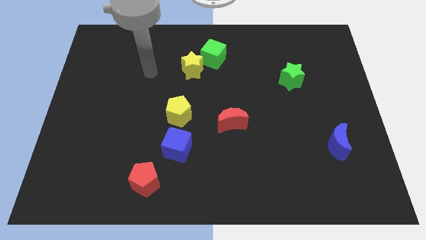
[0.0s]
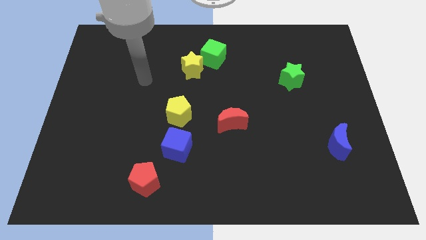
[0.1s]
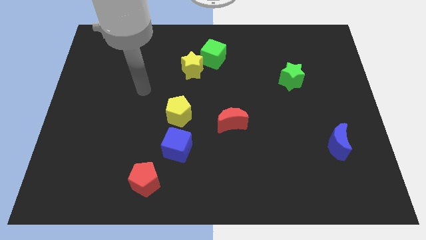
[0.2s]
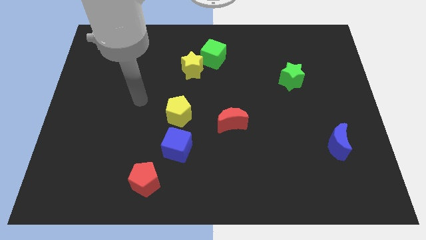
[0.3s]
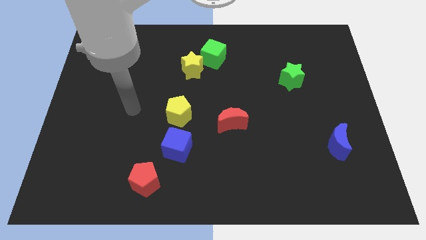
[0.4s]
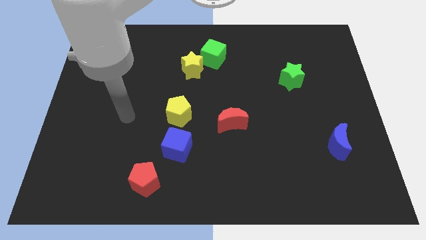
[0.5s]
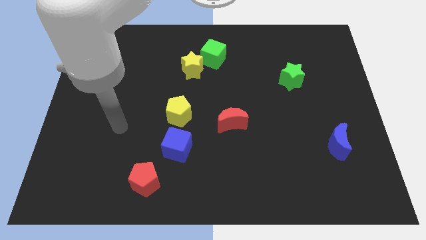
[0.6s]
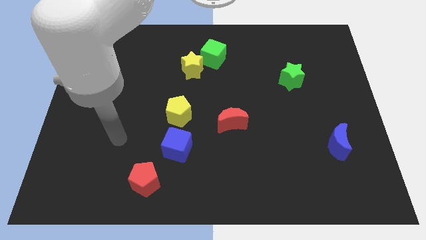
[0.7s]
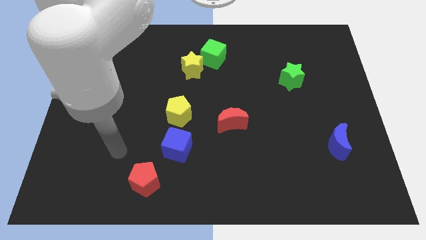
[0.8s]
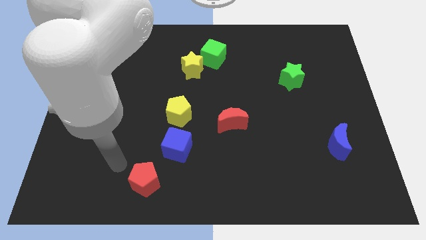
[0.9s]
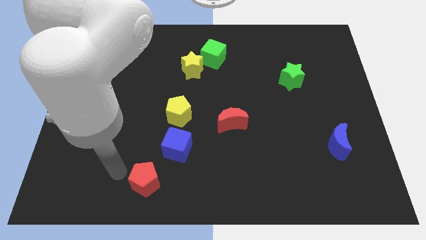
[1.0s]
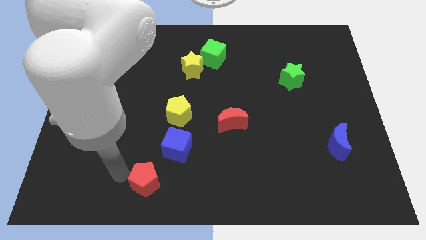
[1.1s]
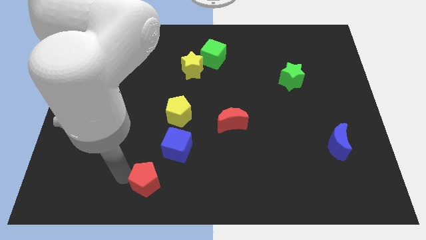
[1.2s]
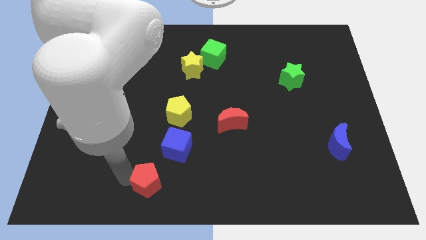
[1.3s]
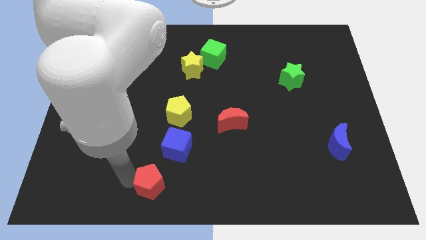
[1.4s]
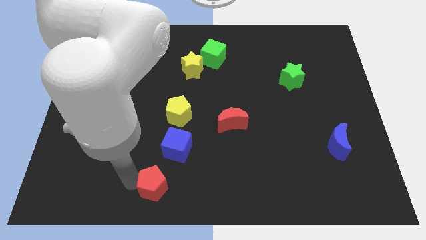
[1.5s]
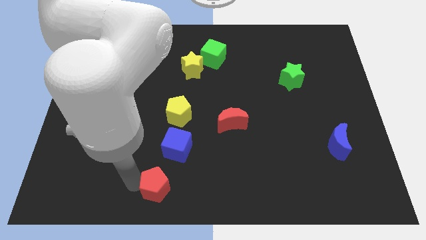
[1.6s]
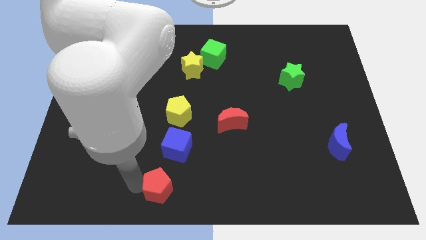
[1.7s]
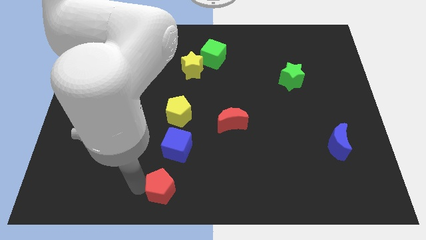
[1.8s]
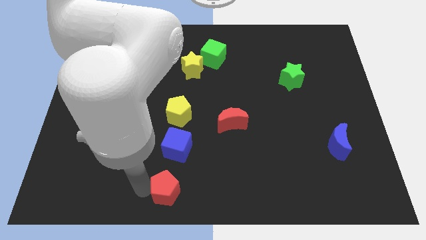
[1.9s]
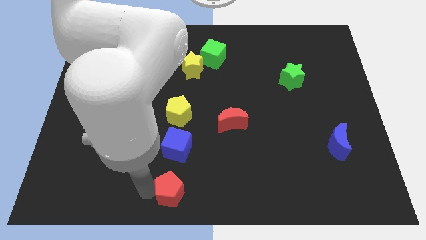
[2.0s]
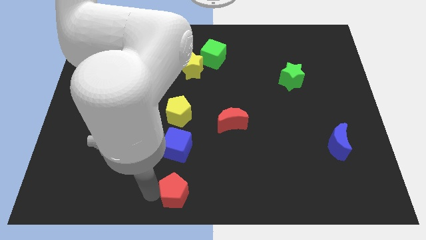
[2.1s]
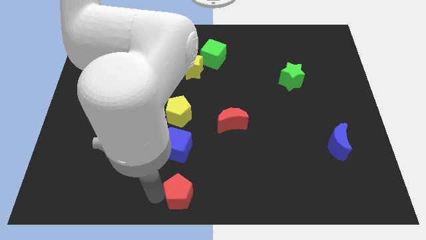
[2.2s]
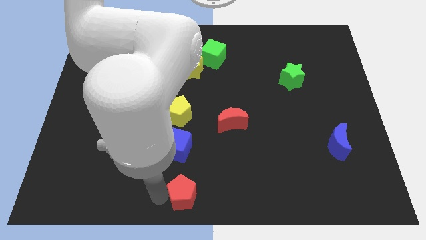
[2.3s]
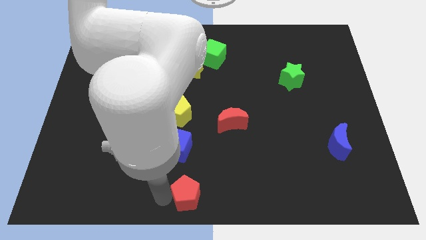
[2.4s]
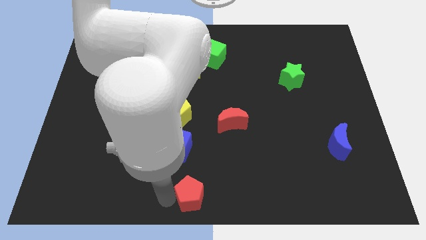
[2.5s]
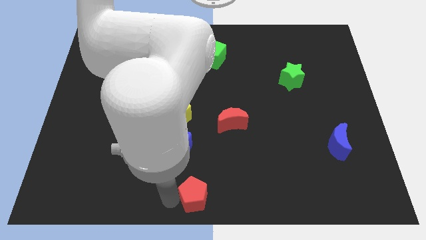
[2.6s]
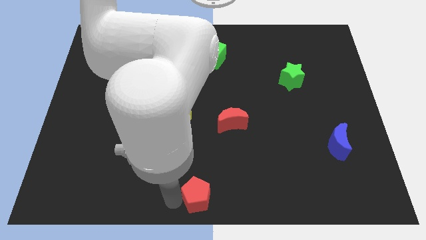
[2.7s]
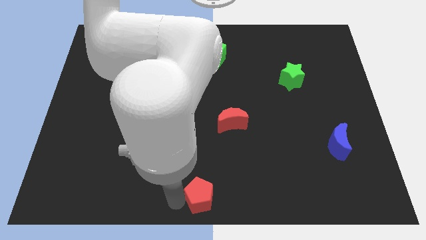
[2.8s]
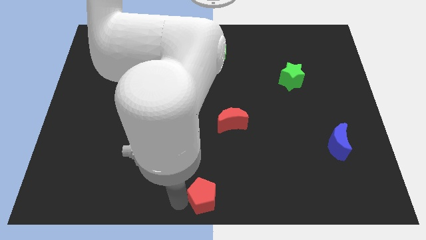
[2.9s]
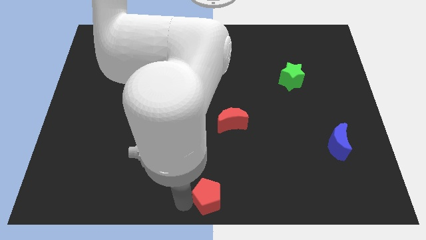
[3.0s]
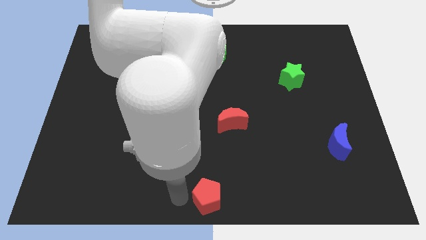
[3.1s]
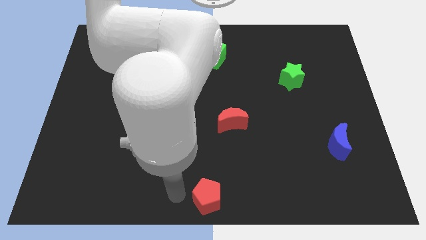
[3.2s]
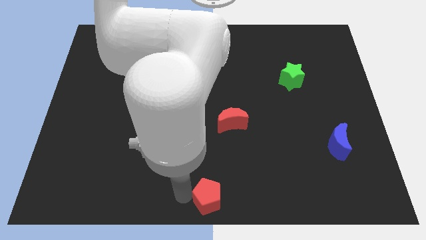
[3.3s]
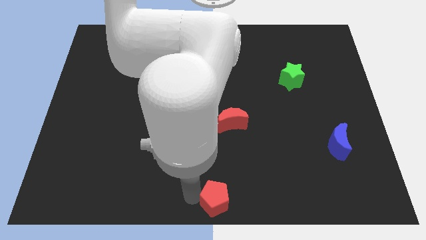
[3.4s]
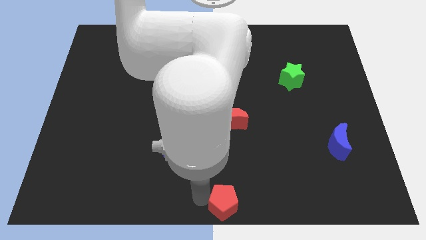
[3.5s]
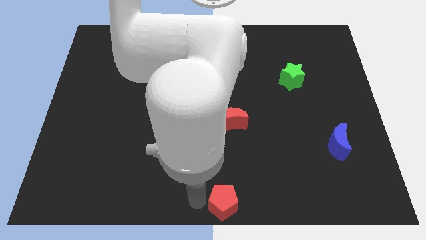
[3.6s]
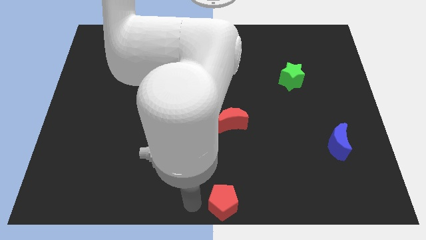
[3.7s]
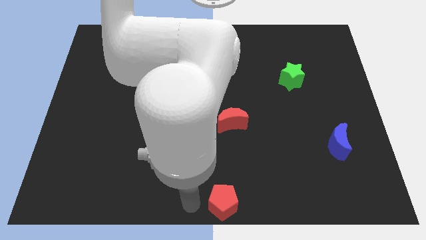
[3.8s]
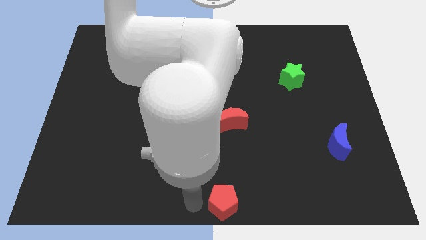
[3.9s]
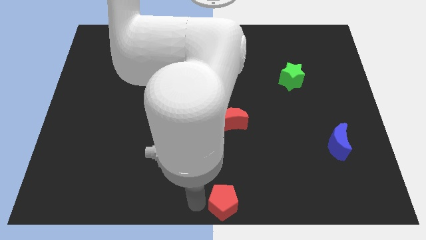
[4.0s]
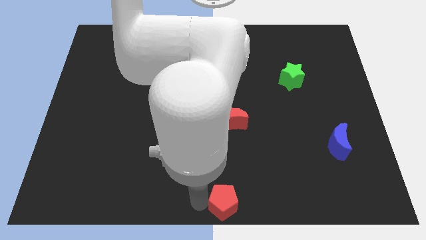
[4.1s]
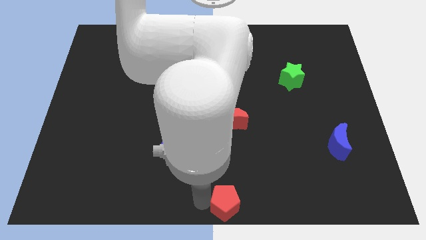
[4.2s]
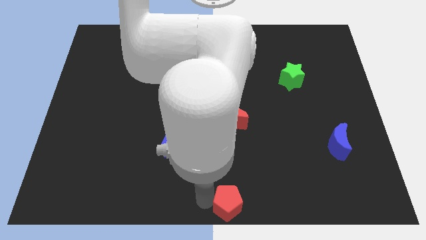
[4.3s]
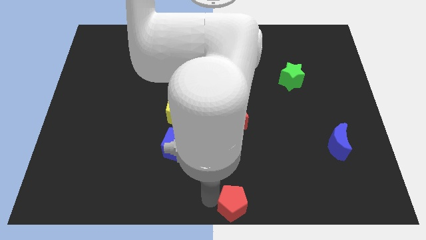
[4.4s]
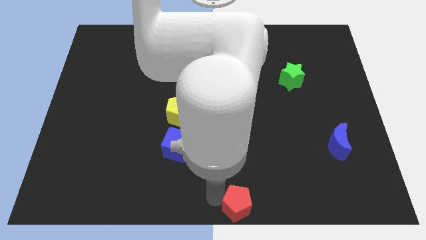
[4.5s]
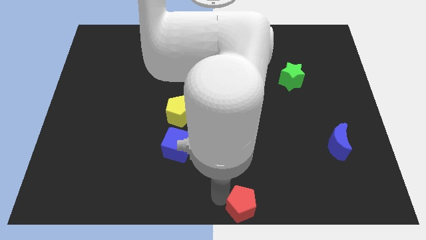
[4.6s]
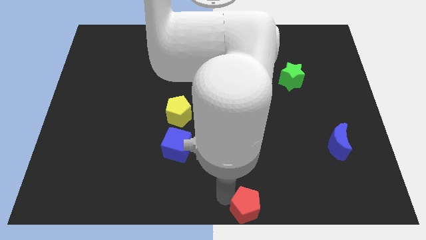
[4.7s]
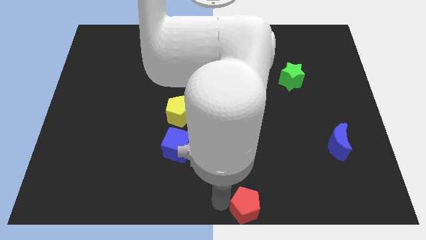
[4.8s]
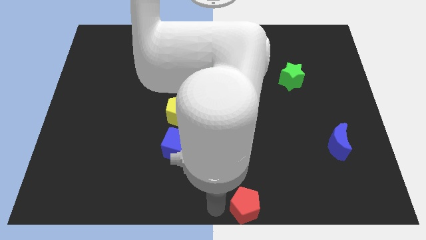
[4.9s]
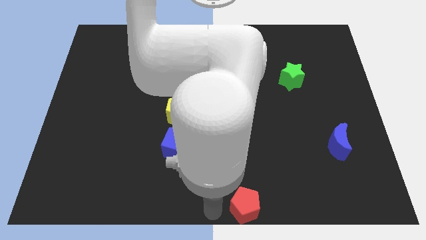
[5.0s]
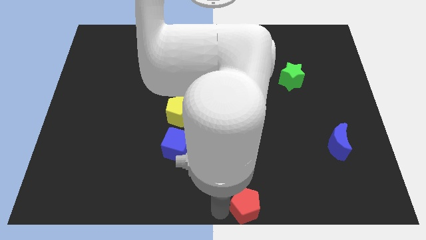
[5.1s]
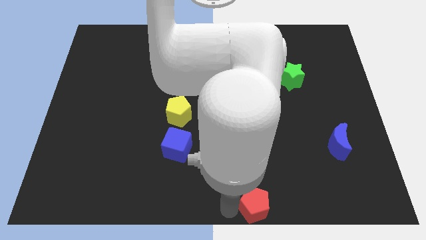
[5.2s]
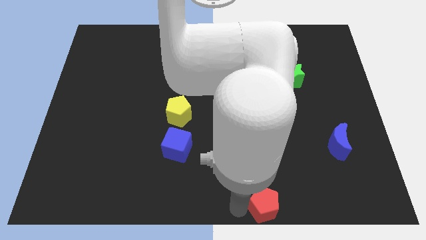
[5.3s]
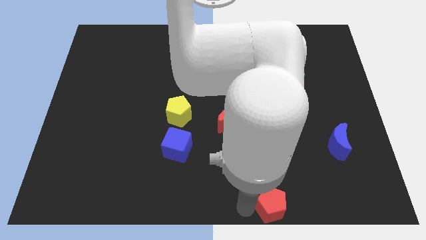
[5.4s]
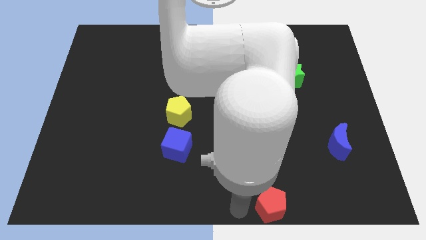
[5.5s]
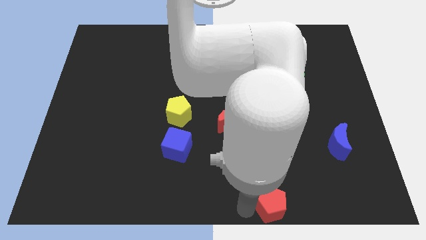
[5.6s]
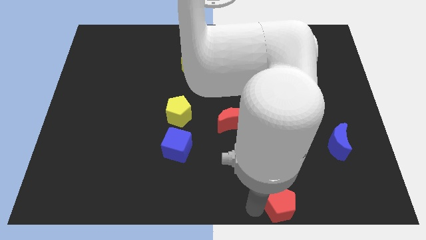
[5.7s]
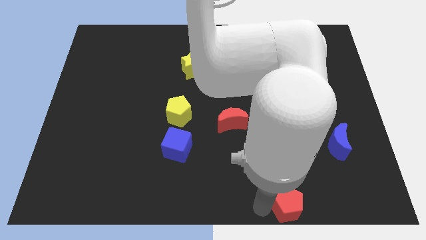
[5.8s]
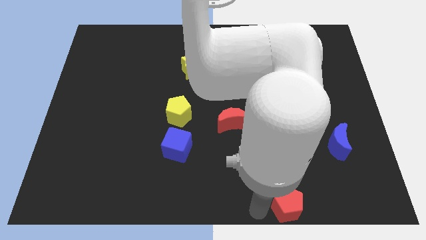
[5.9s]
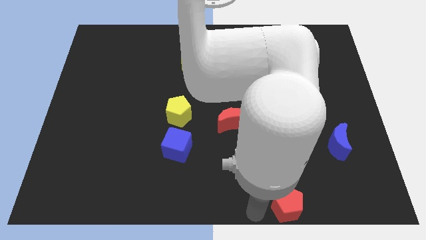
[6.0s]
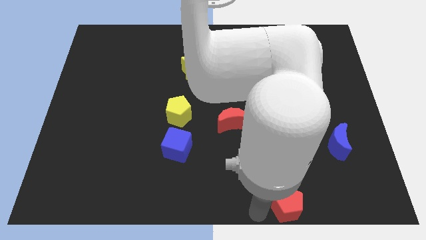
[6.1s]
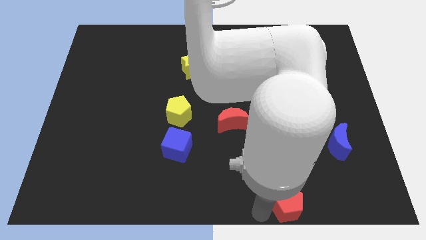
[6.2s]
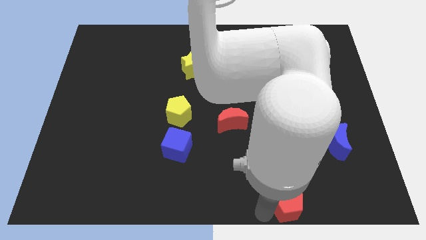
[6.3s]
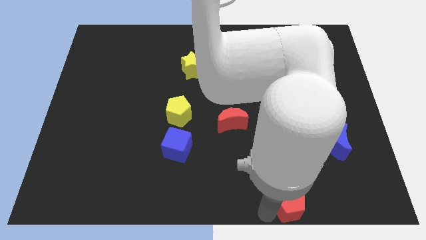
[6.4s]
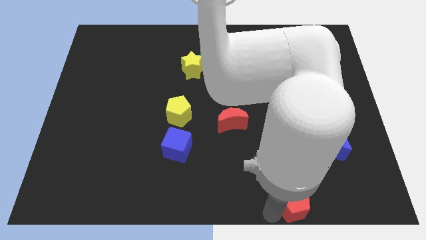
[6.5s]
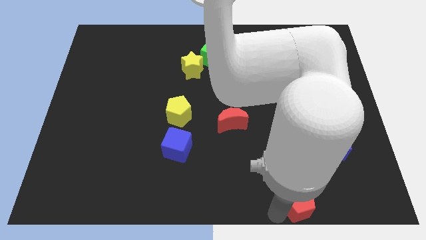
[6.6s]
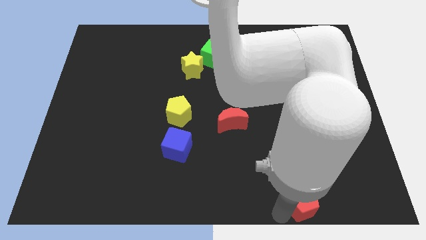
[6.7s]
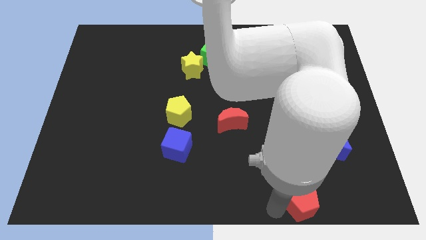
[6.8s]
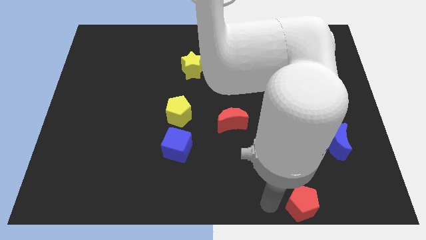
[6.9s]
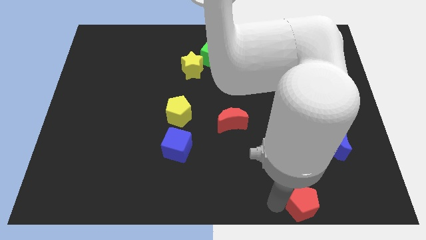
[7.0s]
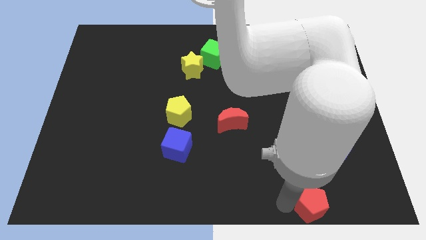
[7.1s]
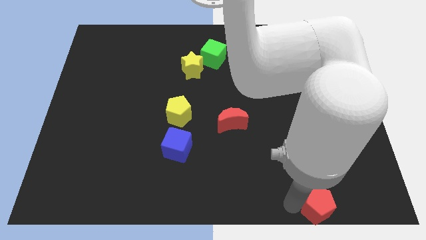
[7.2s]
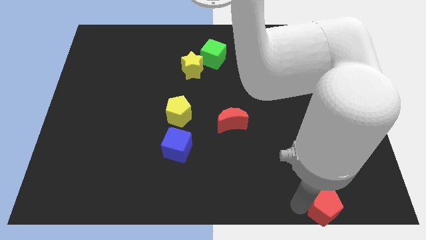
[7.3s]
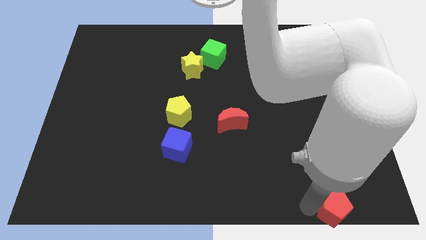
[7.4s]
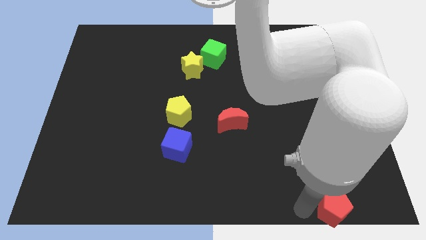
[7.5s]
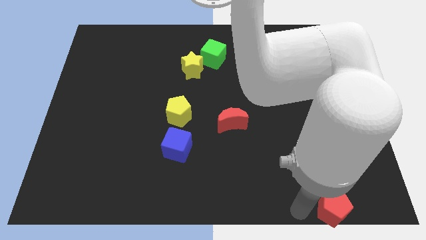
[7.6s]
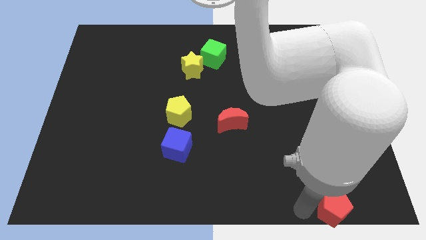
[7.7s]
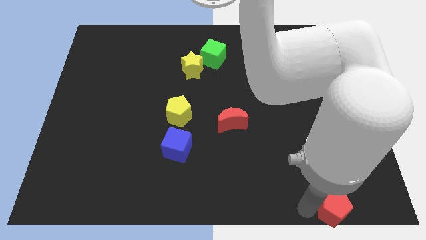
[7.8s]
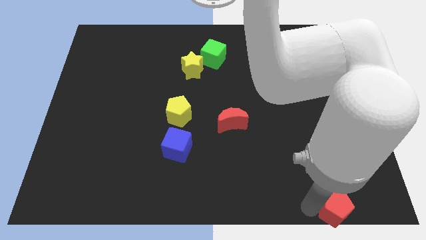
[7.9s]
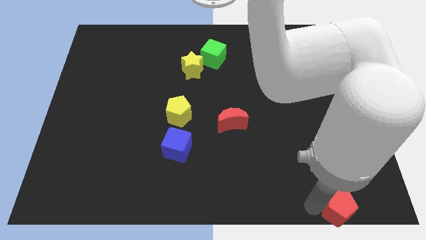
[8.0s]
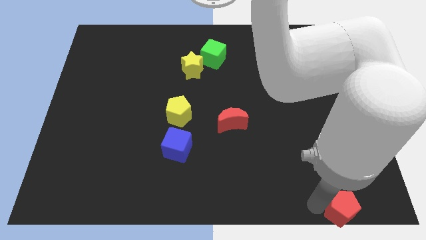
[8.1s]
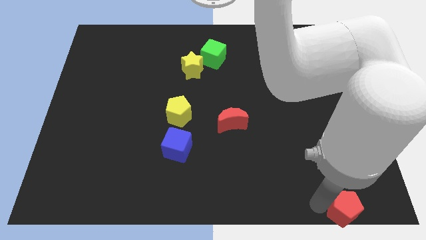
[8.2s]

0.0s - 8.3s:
push the red pentagon to the bottom right corner
